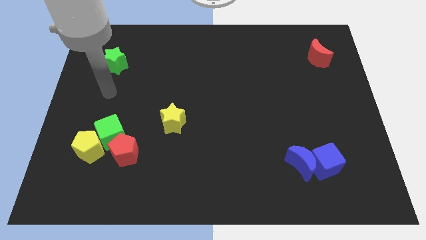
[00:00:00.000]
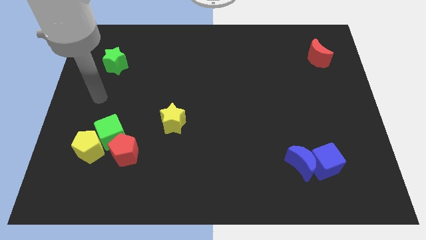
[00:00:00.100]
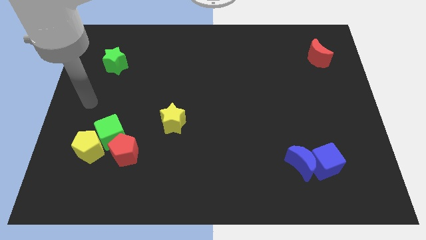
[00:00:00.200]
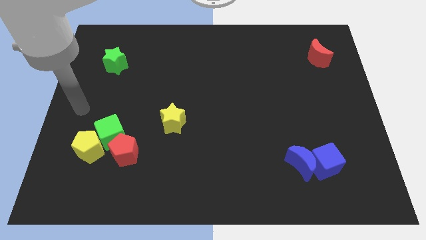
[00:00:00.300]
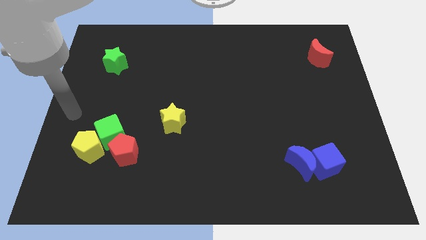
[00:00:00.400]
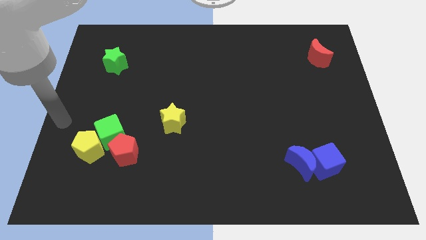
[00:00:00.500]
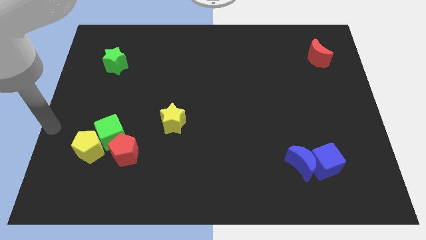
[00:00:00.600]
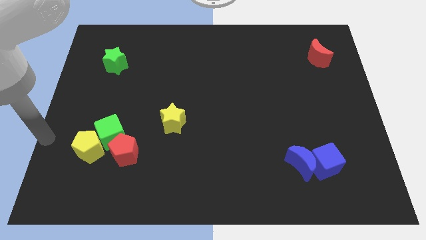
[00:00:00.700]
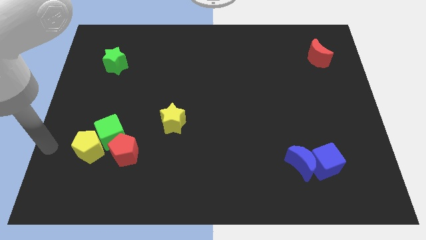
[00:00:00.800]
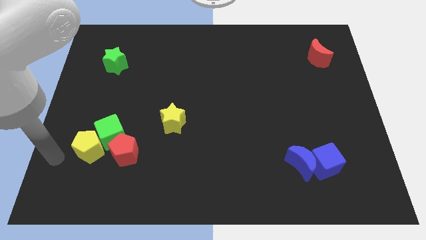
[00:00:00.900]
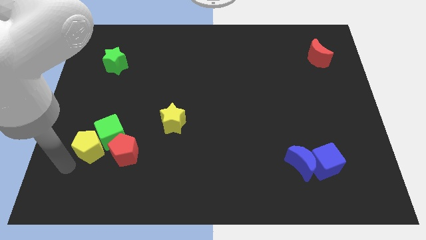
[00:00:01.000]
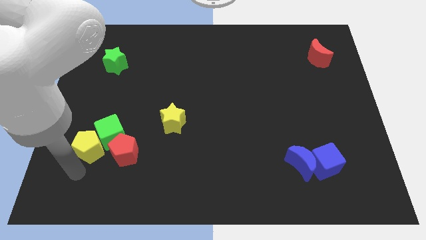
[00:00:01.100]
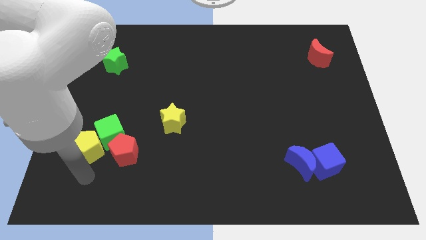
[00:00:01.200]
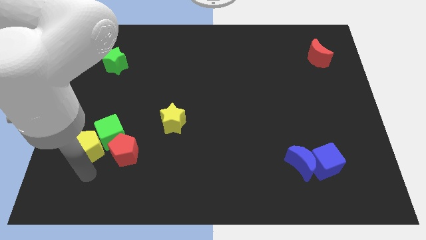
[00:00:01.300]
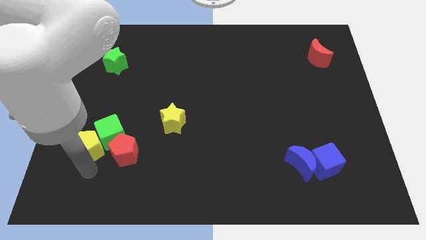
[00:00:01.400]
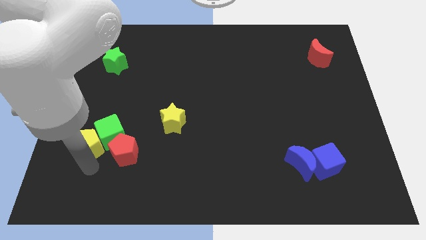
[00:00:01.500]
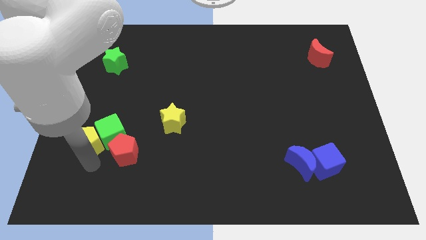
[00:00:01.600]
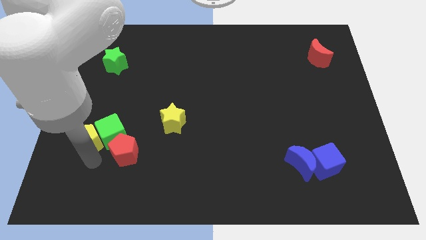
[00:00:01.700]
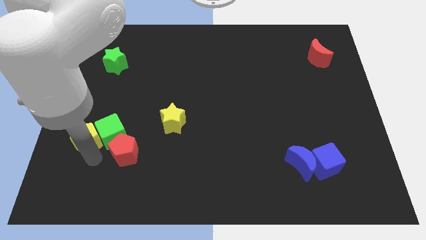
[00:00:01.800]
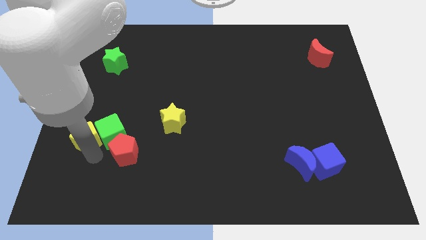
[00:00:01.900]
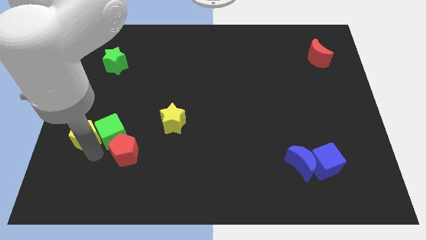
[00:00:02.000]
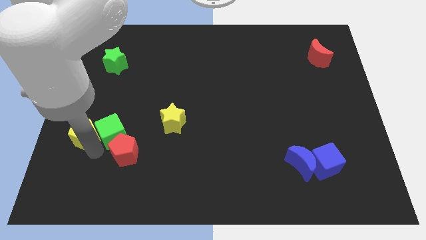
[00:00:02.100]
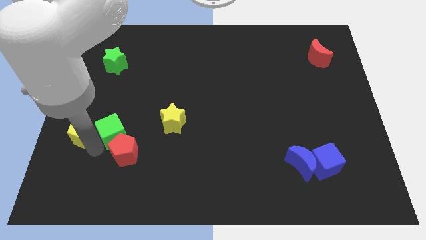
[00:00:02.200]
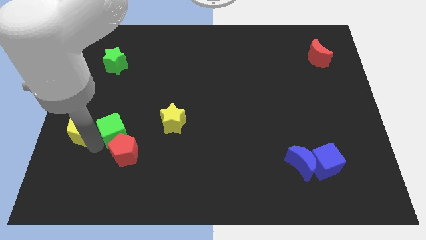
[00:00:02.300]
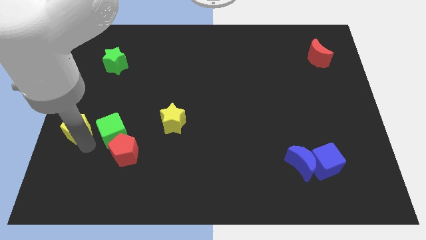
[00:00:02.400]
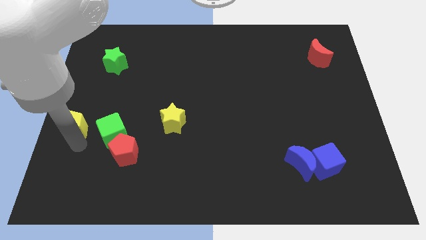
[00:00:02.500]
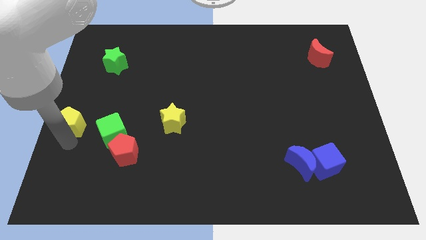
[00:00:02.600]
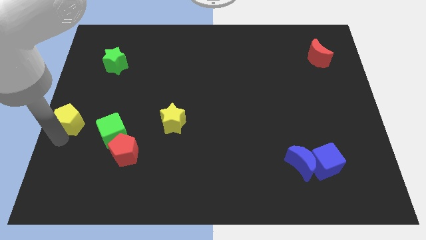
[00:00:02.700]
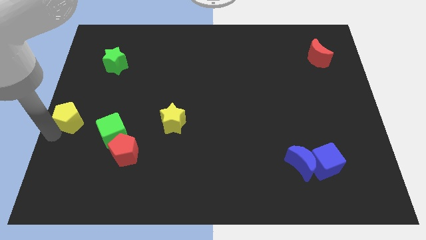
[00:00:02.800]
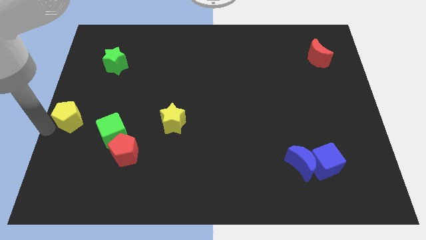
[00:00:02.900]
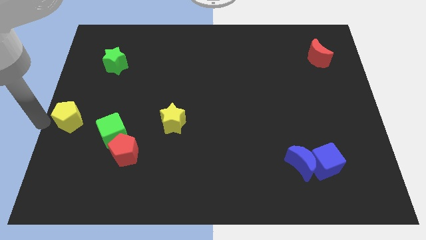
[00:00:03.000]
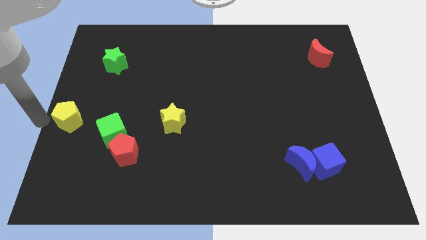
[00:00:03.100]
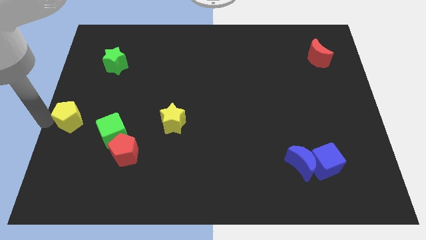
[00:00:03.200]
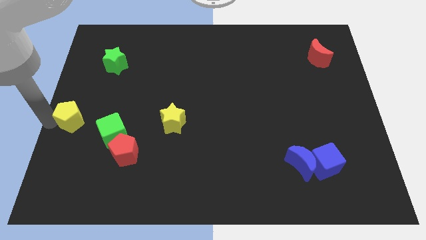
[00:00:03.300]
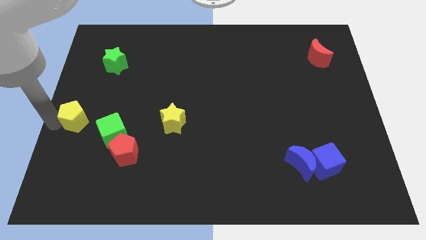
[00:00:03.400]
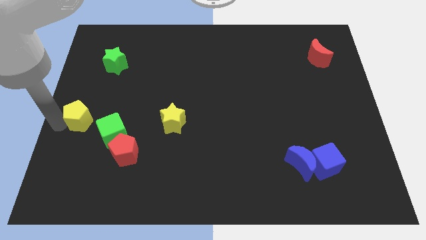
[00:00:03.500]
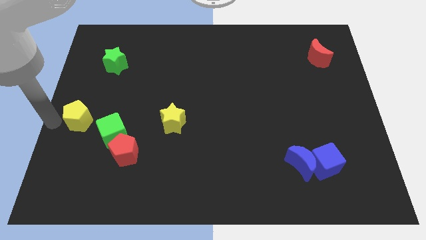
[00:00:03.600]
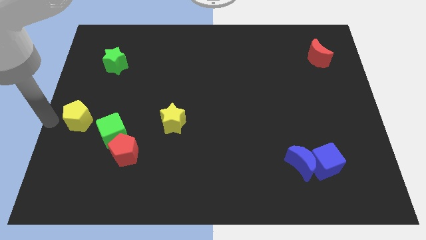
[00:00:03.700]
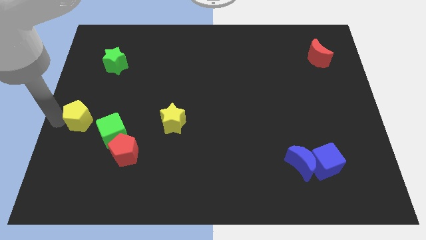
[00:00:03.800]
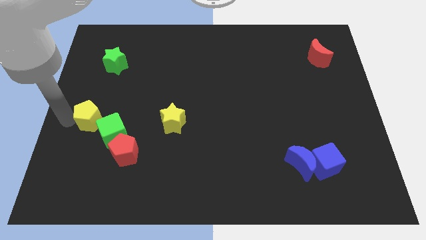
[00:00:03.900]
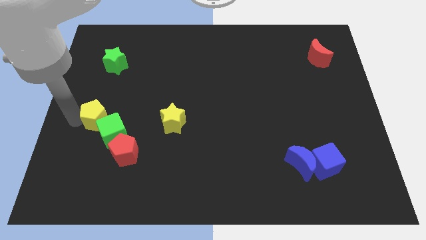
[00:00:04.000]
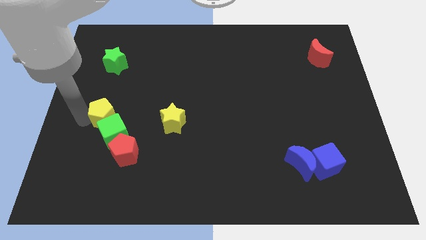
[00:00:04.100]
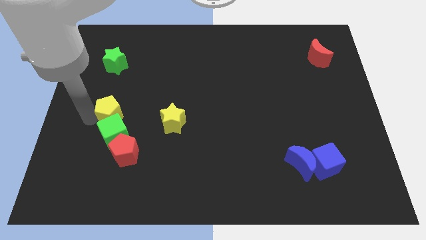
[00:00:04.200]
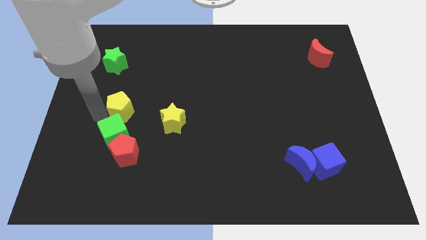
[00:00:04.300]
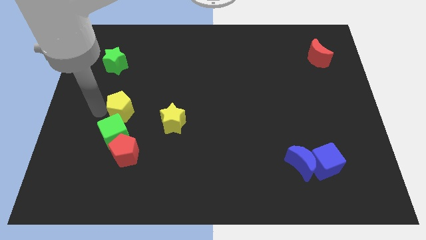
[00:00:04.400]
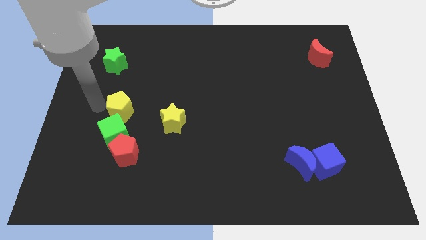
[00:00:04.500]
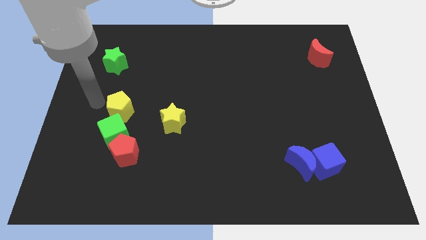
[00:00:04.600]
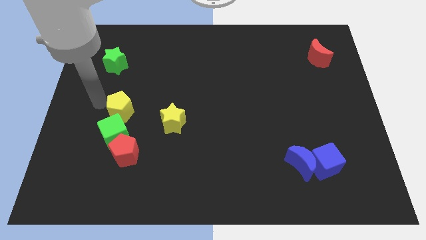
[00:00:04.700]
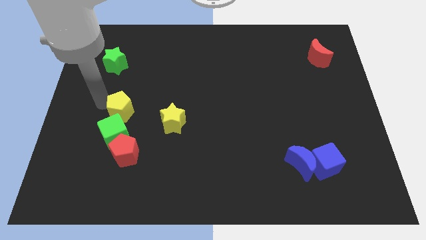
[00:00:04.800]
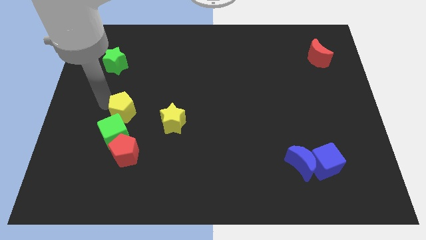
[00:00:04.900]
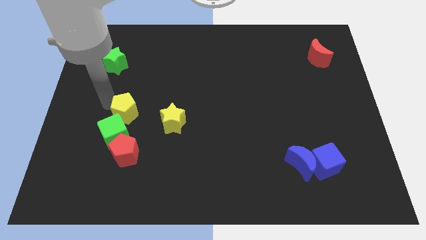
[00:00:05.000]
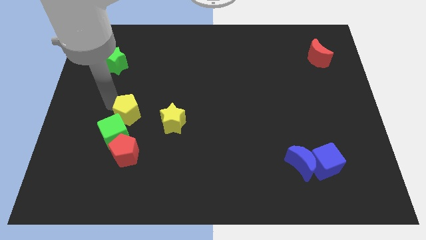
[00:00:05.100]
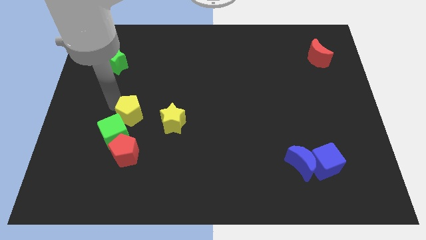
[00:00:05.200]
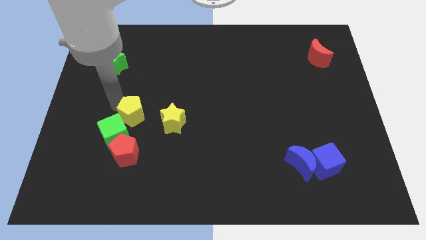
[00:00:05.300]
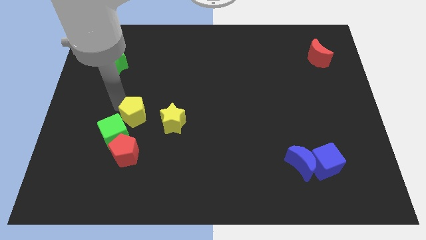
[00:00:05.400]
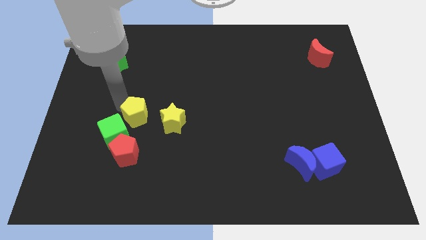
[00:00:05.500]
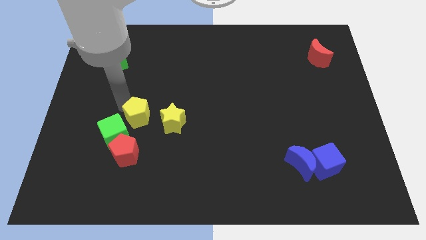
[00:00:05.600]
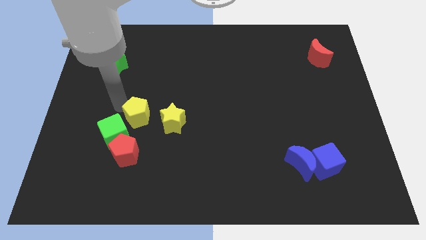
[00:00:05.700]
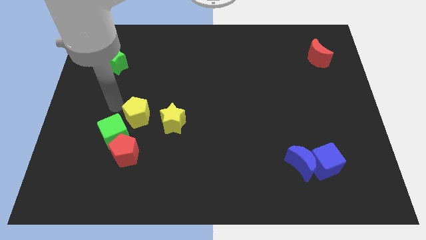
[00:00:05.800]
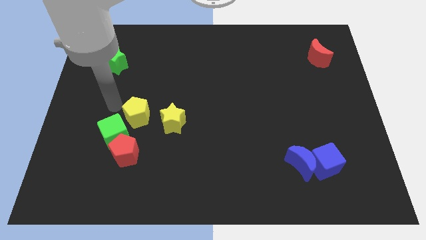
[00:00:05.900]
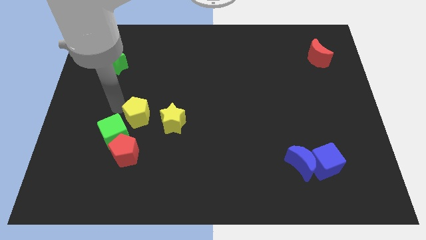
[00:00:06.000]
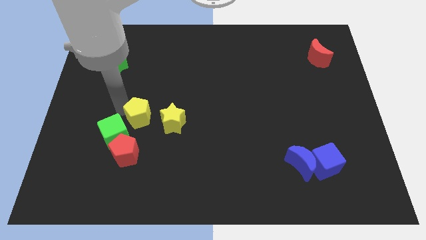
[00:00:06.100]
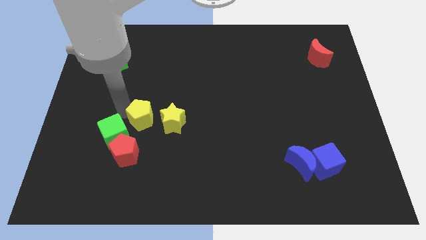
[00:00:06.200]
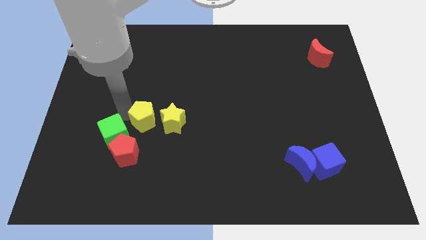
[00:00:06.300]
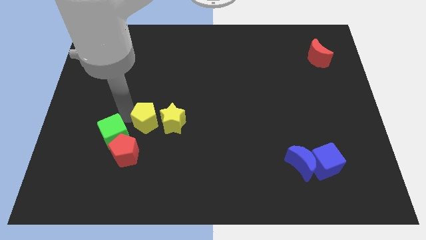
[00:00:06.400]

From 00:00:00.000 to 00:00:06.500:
put the yellow pentagon to the yellow star
